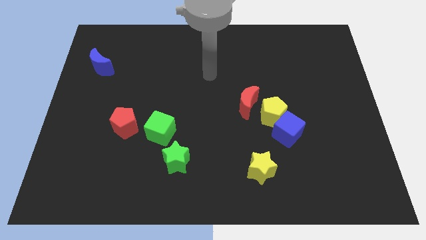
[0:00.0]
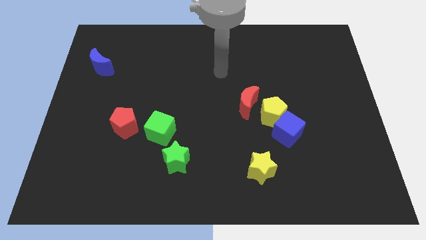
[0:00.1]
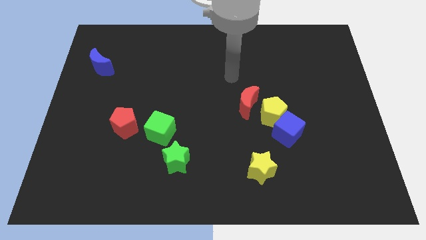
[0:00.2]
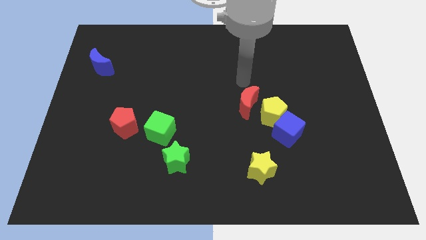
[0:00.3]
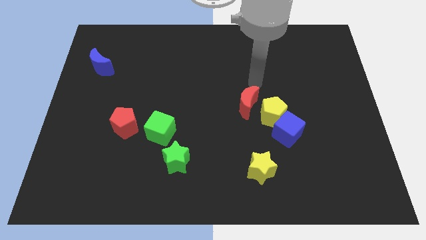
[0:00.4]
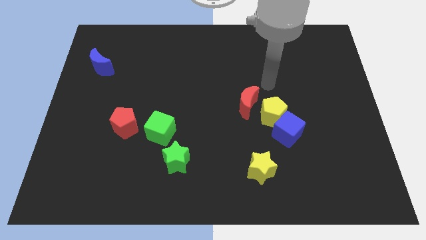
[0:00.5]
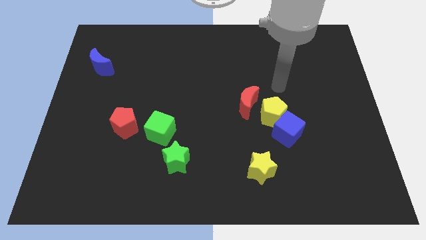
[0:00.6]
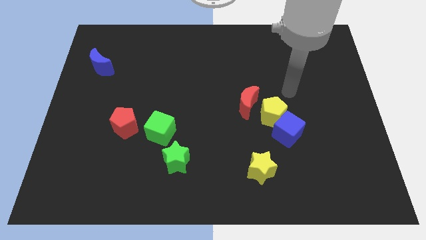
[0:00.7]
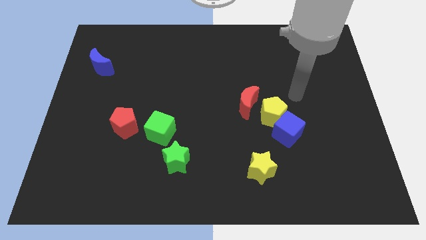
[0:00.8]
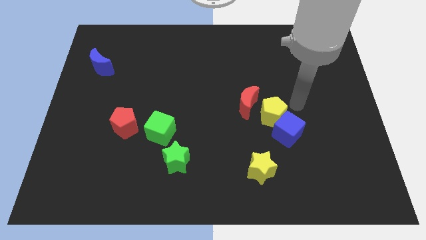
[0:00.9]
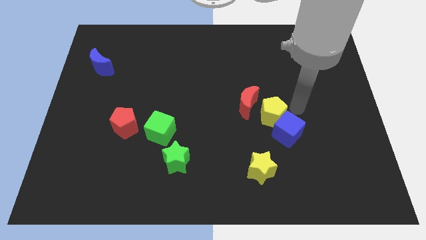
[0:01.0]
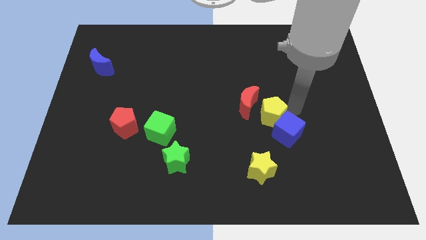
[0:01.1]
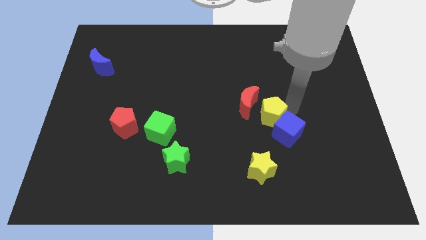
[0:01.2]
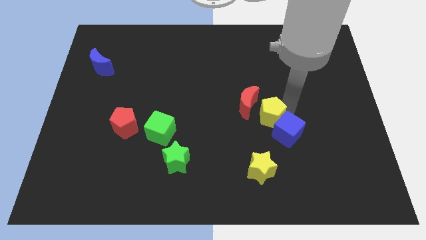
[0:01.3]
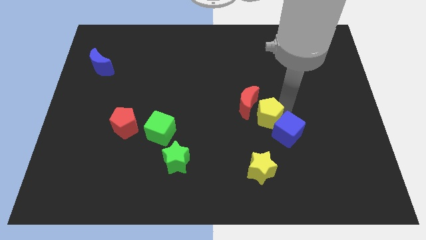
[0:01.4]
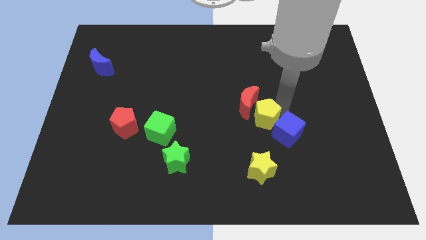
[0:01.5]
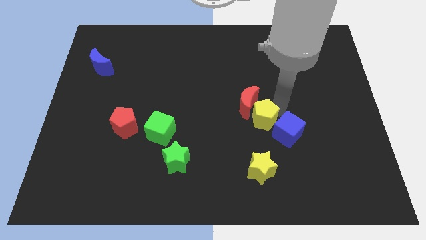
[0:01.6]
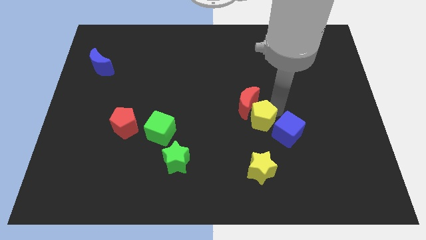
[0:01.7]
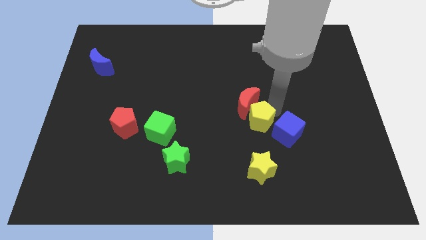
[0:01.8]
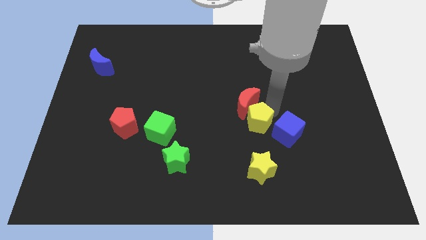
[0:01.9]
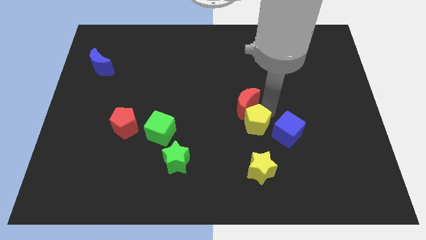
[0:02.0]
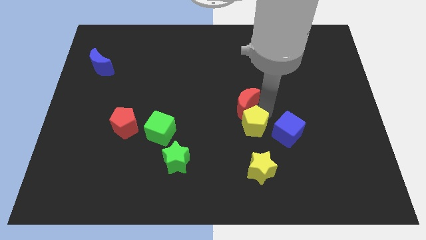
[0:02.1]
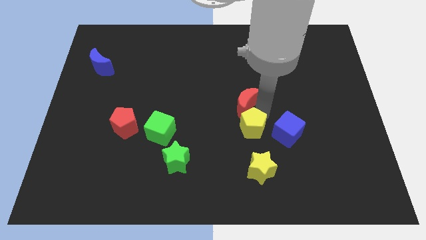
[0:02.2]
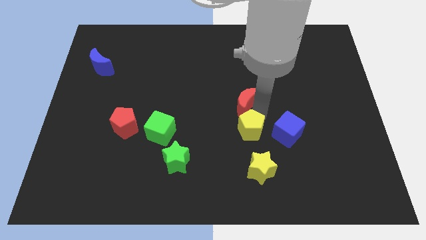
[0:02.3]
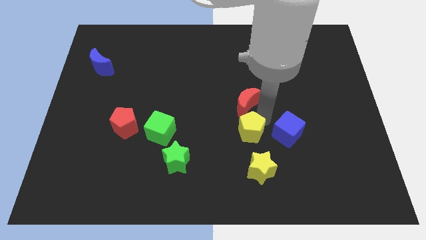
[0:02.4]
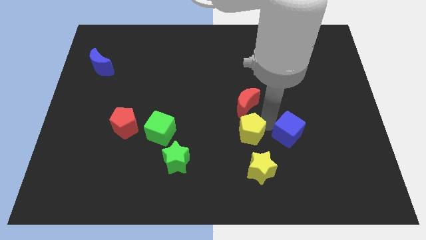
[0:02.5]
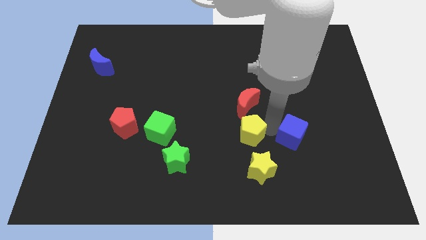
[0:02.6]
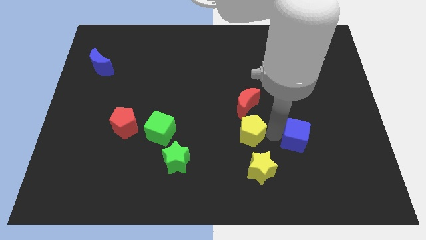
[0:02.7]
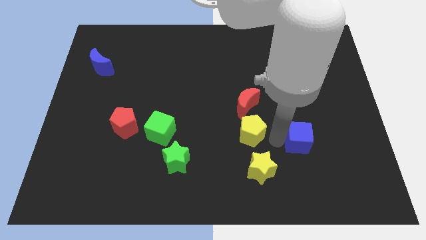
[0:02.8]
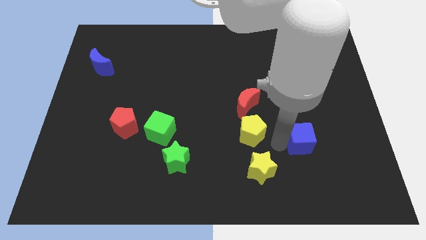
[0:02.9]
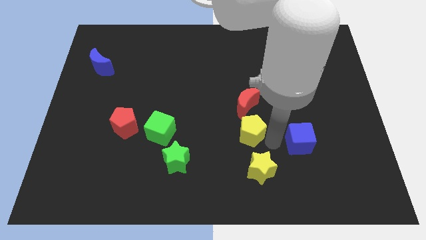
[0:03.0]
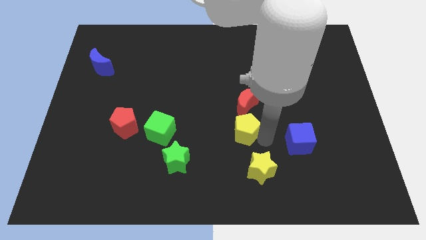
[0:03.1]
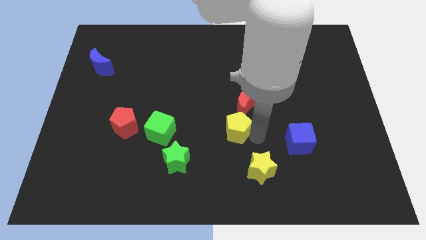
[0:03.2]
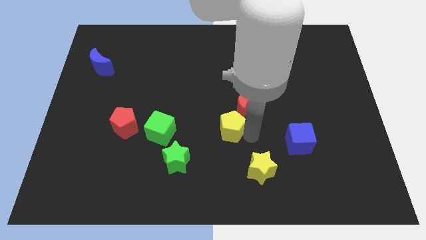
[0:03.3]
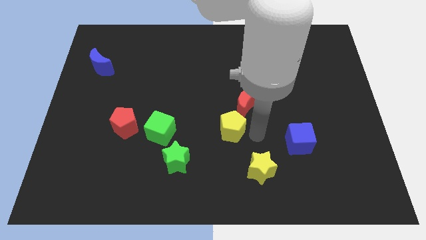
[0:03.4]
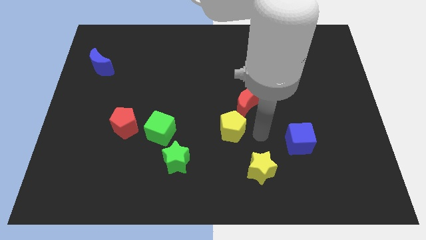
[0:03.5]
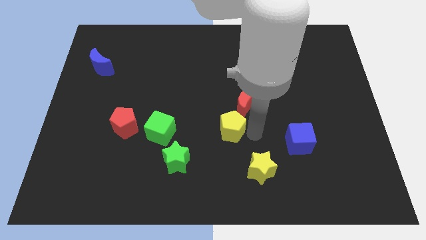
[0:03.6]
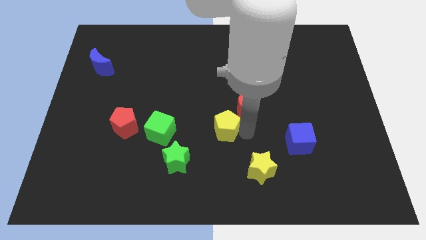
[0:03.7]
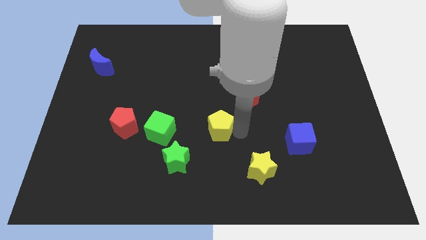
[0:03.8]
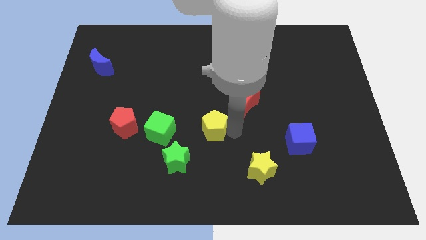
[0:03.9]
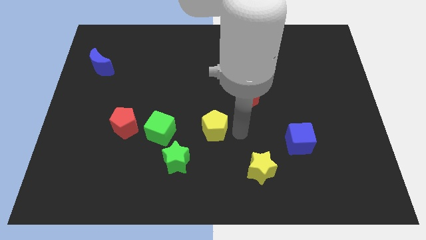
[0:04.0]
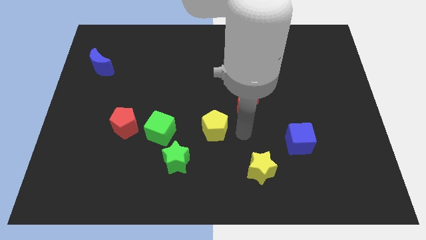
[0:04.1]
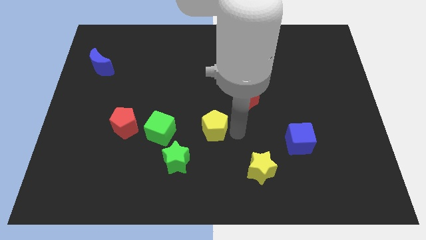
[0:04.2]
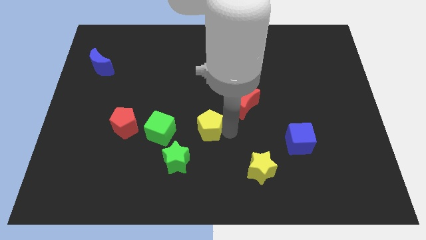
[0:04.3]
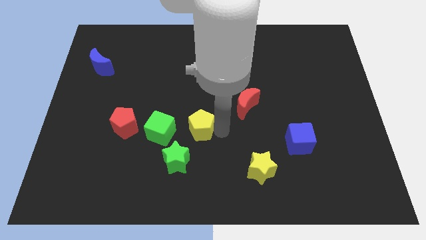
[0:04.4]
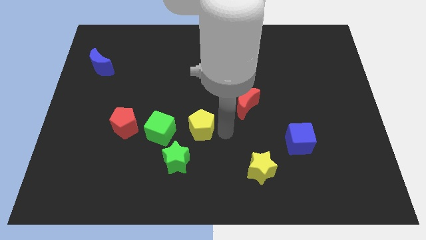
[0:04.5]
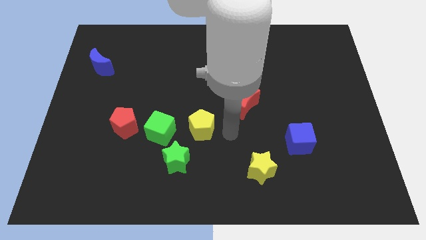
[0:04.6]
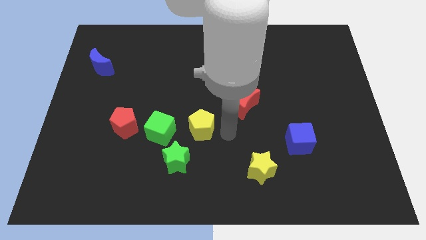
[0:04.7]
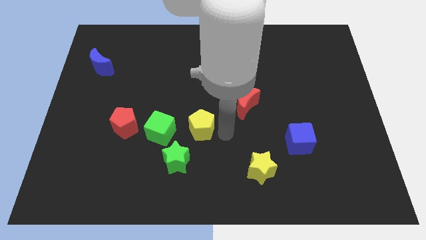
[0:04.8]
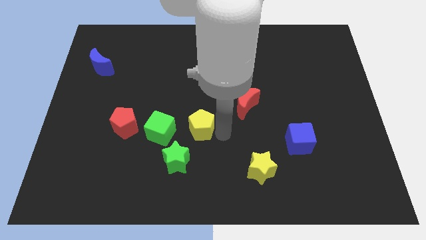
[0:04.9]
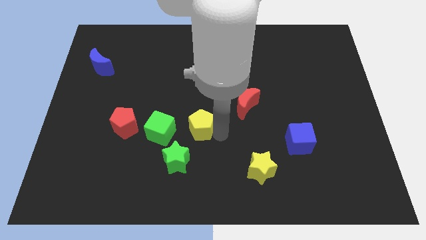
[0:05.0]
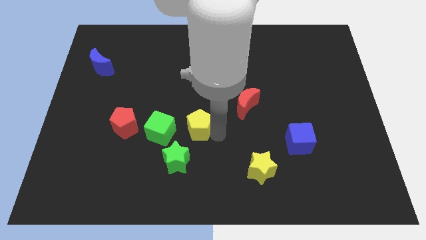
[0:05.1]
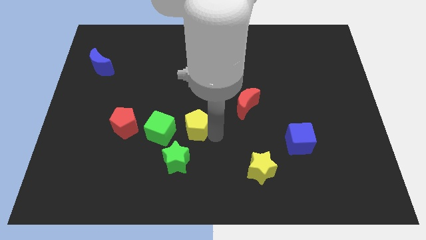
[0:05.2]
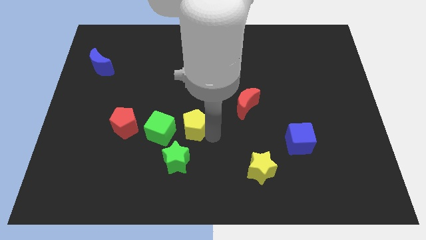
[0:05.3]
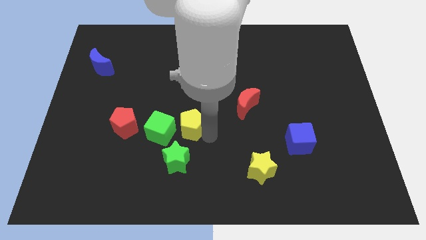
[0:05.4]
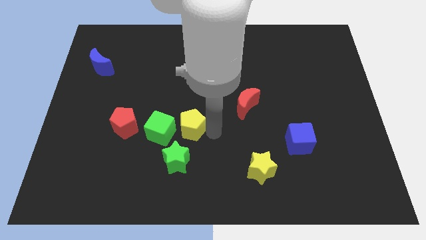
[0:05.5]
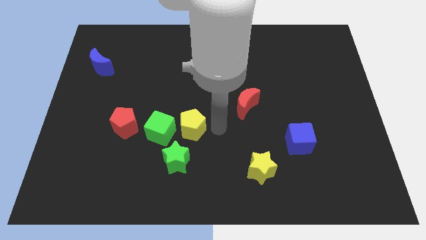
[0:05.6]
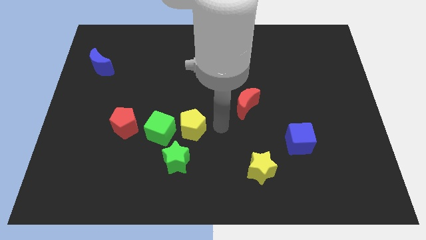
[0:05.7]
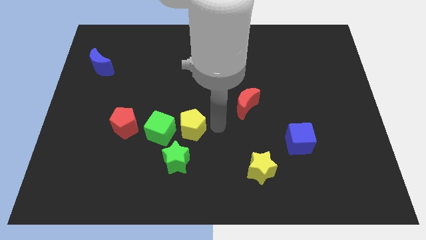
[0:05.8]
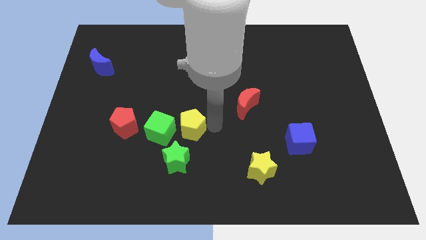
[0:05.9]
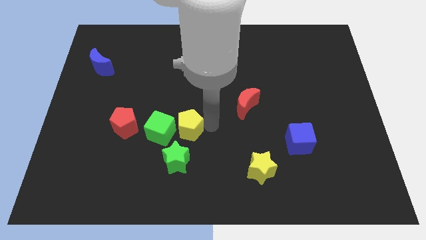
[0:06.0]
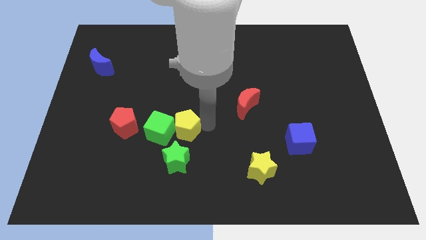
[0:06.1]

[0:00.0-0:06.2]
push the yellow pentagon close to the green cube

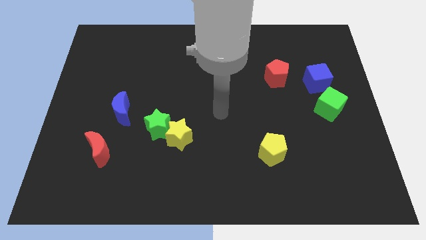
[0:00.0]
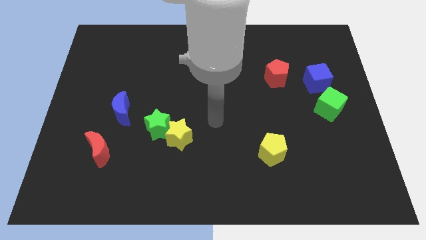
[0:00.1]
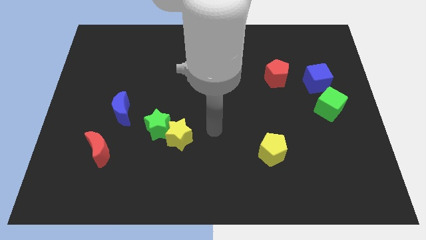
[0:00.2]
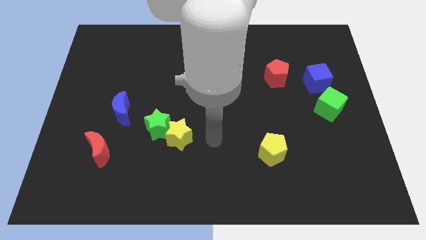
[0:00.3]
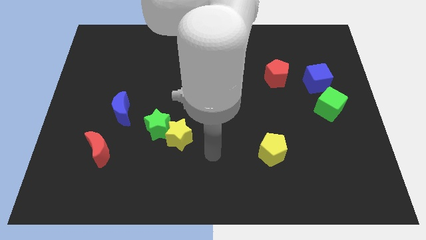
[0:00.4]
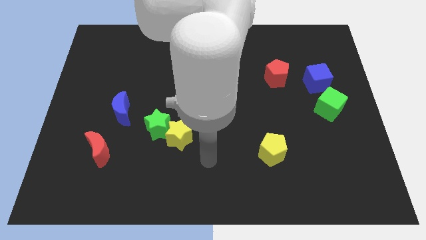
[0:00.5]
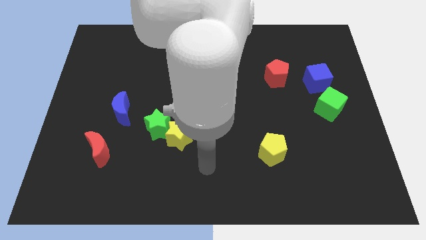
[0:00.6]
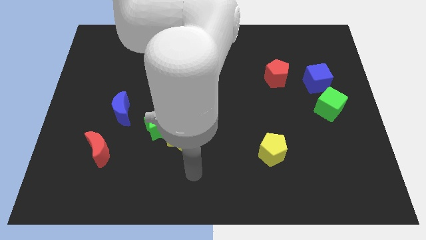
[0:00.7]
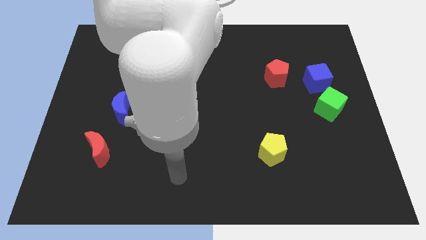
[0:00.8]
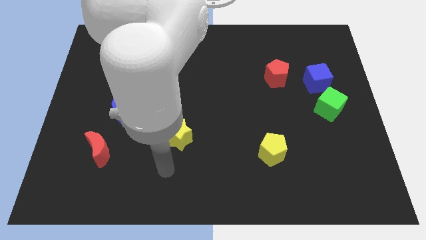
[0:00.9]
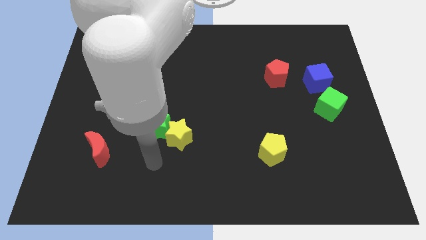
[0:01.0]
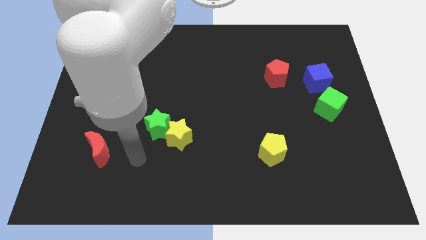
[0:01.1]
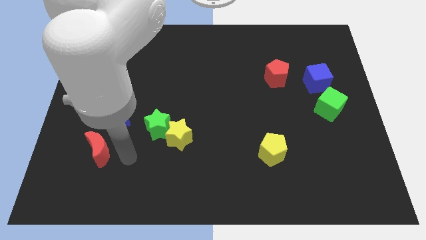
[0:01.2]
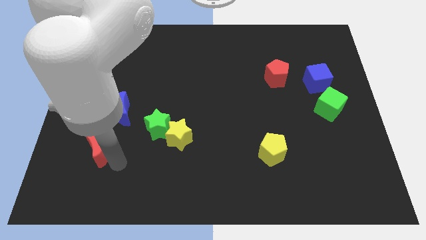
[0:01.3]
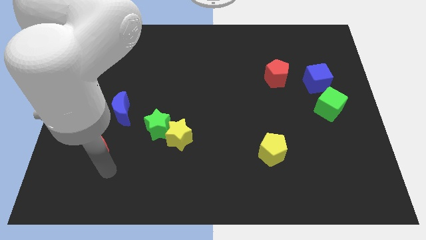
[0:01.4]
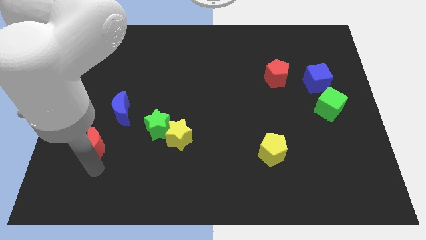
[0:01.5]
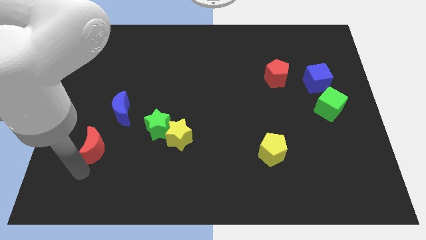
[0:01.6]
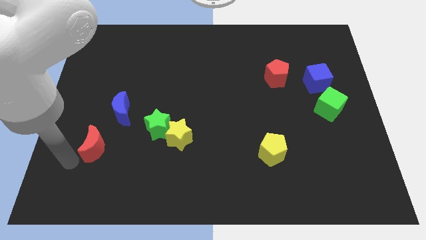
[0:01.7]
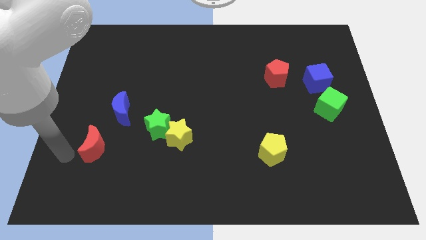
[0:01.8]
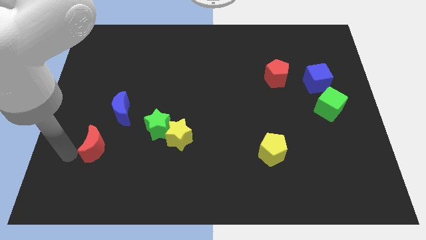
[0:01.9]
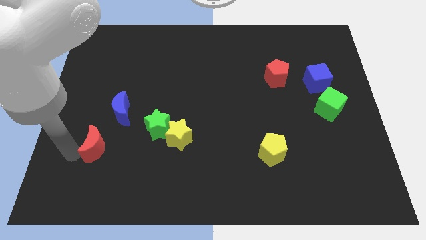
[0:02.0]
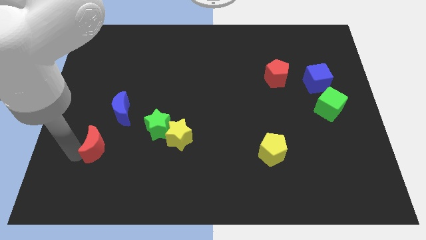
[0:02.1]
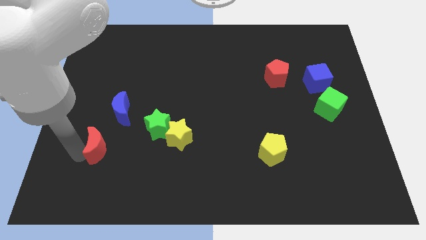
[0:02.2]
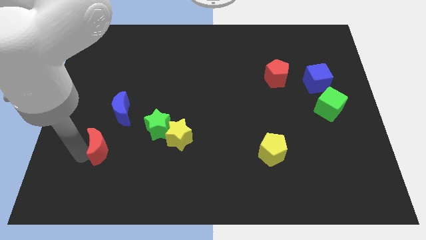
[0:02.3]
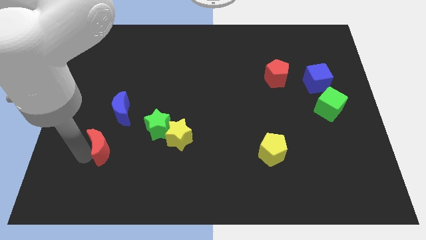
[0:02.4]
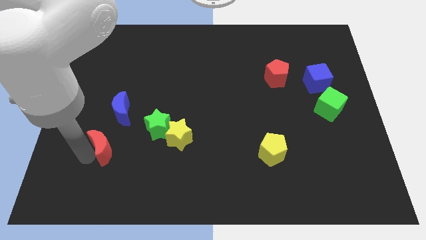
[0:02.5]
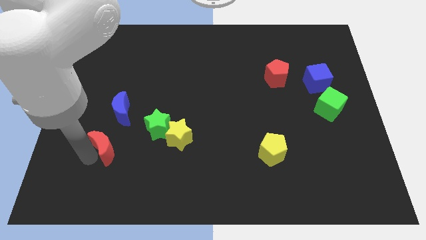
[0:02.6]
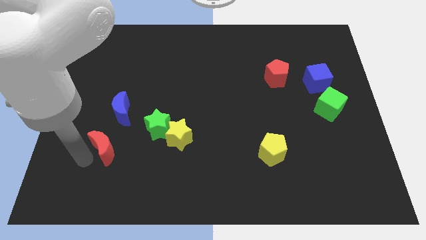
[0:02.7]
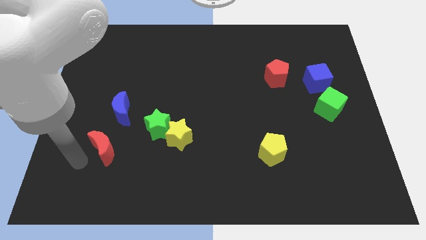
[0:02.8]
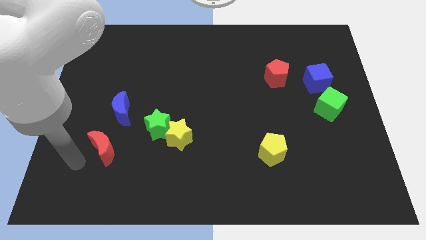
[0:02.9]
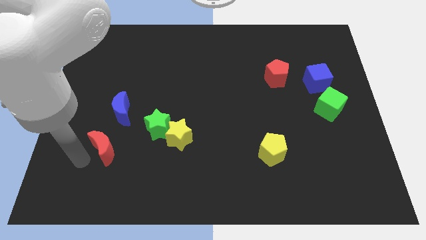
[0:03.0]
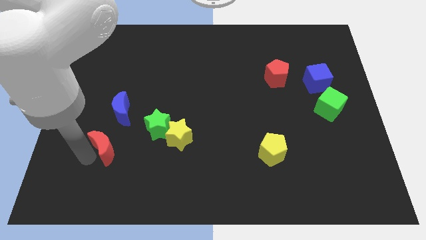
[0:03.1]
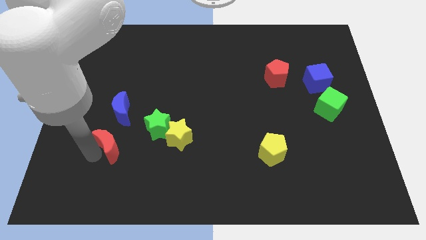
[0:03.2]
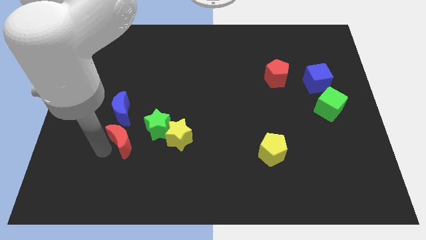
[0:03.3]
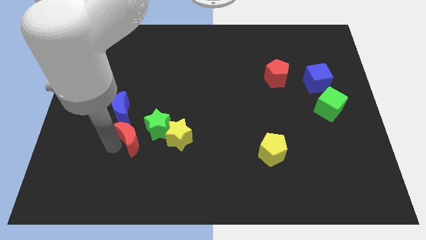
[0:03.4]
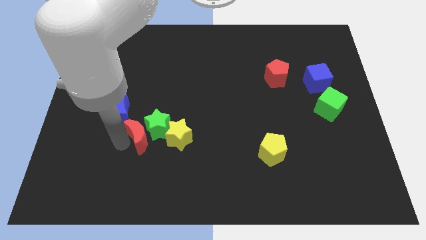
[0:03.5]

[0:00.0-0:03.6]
put the red moon towards the green star
